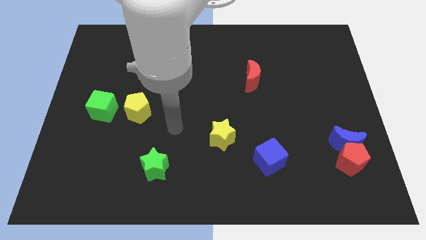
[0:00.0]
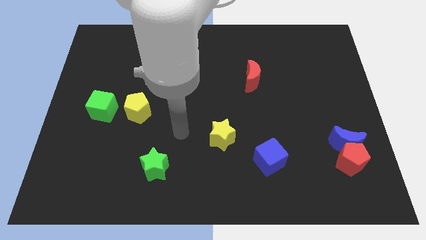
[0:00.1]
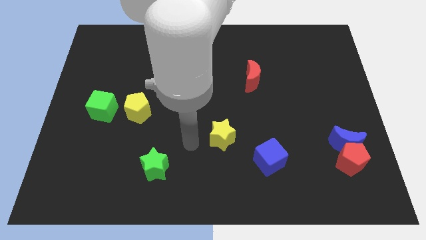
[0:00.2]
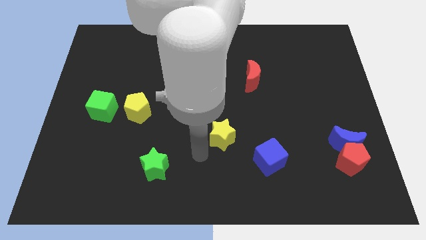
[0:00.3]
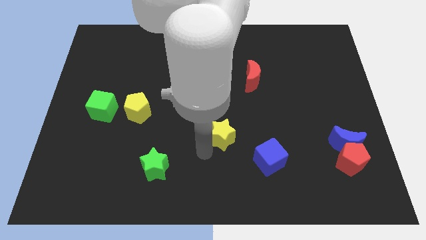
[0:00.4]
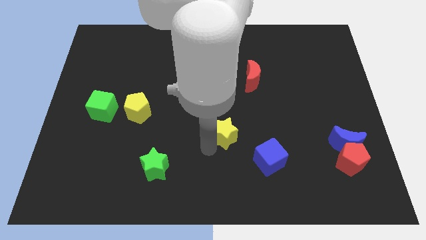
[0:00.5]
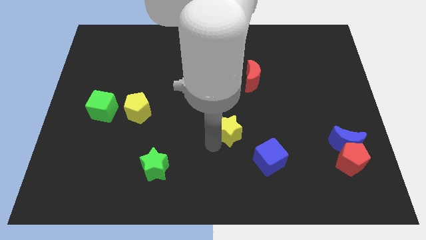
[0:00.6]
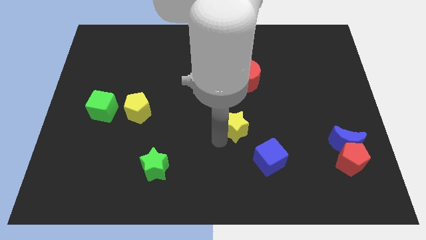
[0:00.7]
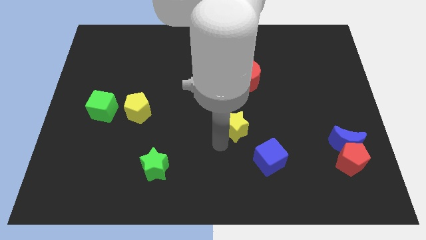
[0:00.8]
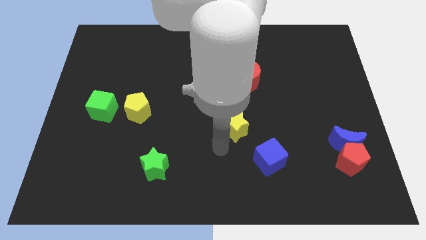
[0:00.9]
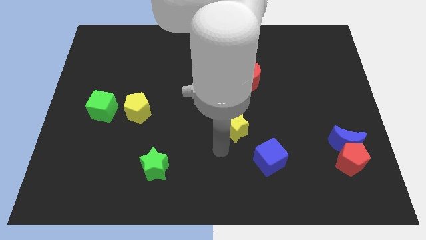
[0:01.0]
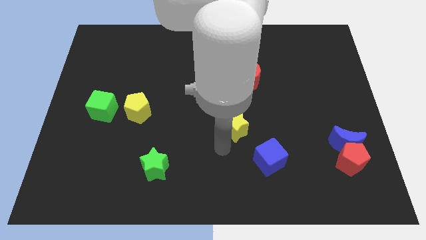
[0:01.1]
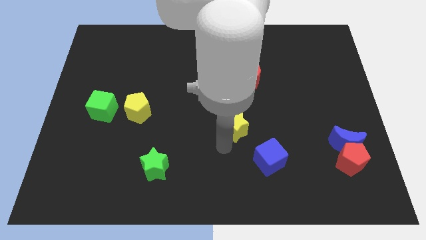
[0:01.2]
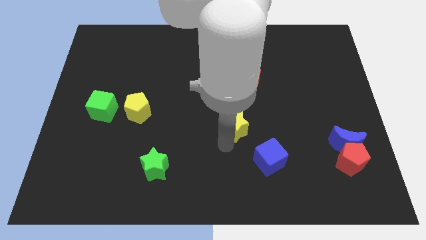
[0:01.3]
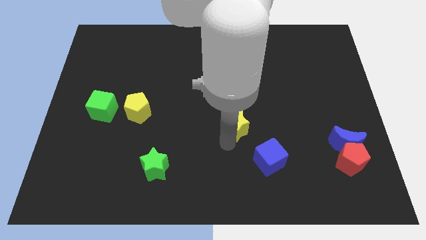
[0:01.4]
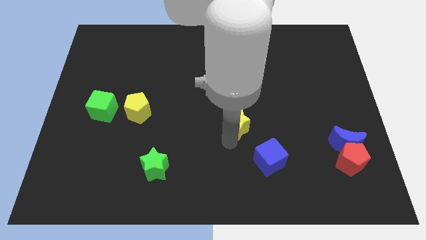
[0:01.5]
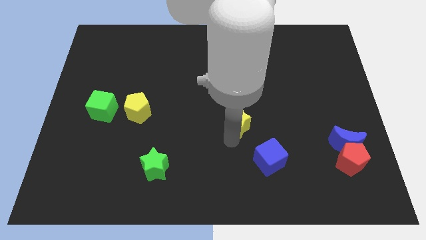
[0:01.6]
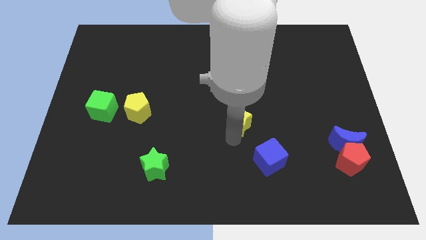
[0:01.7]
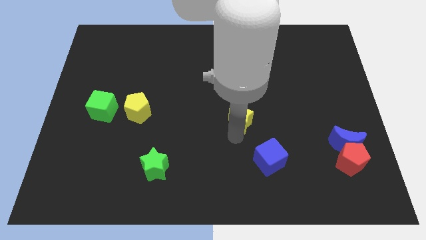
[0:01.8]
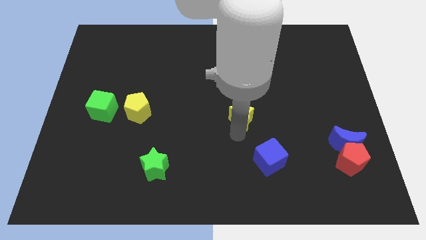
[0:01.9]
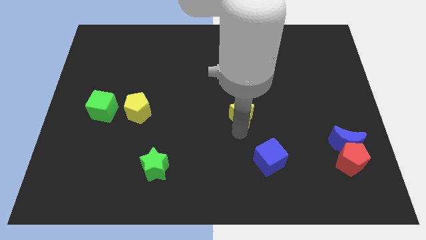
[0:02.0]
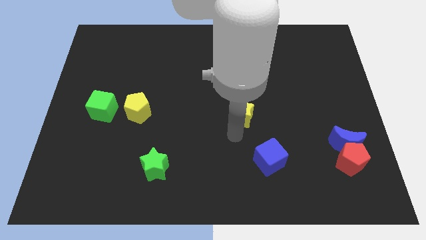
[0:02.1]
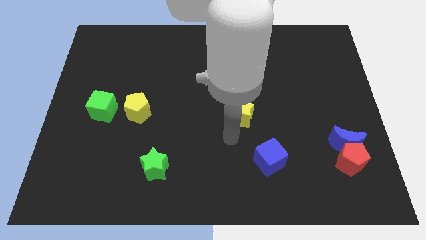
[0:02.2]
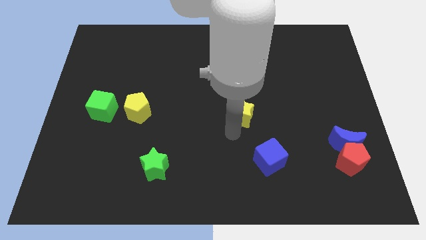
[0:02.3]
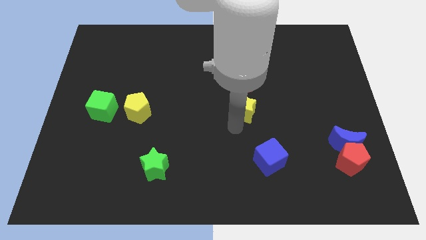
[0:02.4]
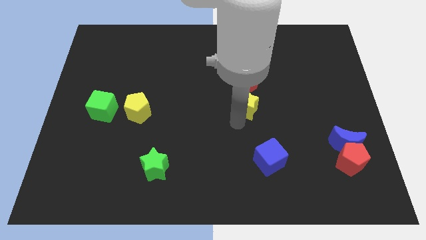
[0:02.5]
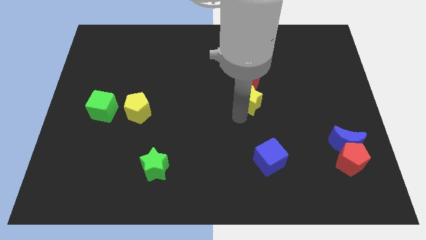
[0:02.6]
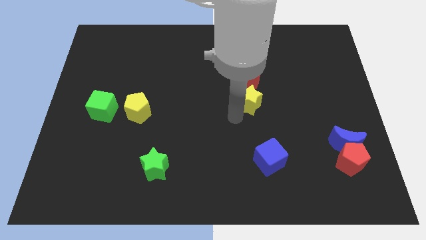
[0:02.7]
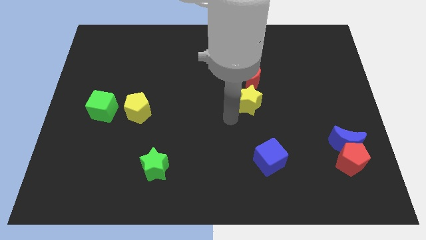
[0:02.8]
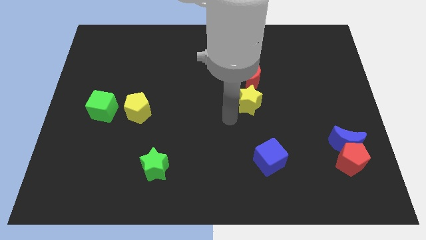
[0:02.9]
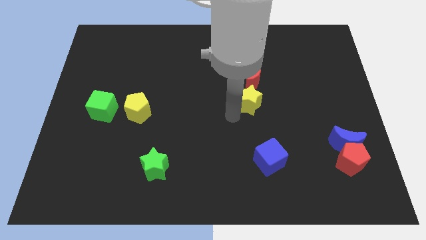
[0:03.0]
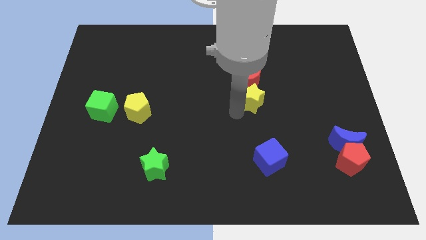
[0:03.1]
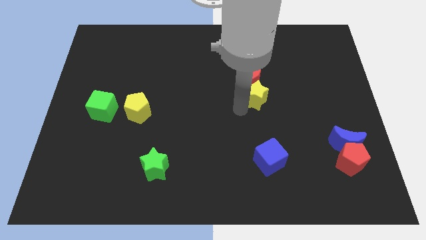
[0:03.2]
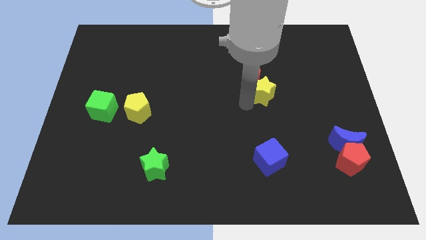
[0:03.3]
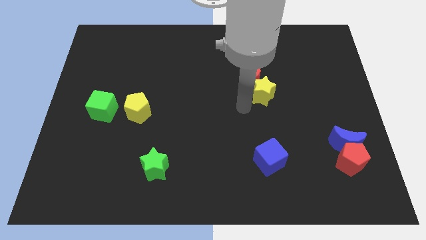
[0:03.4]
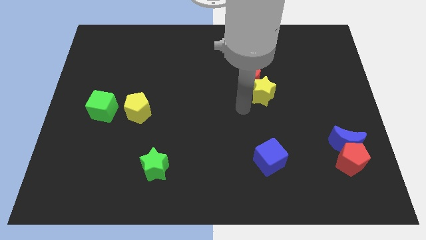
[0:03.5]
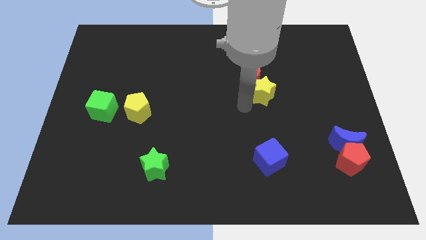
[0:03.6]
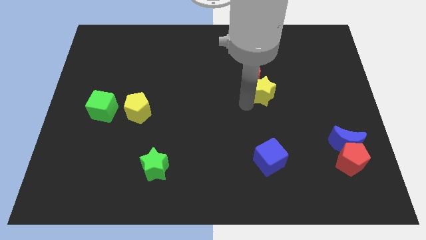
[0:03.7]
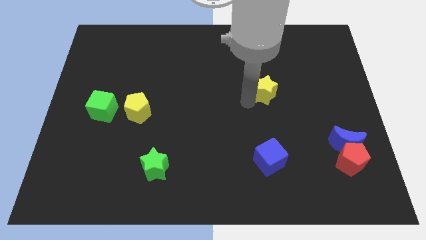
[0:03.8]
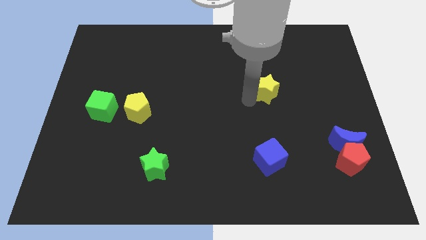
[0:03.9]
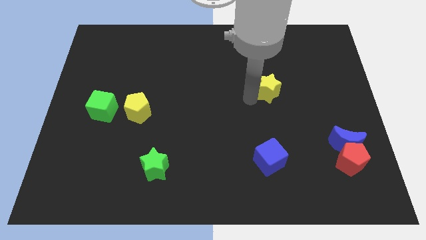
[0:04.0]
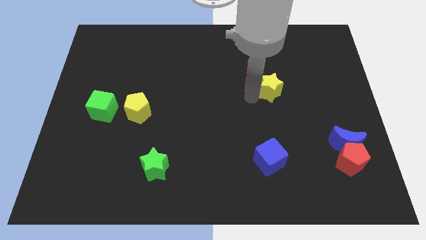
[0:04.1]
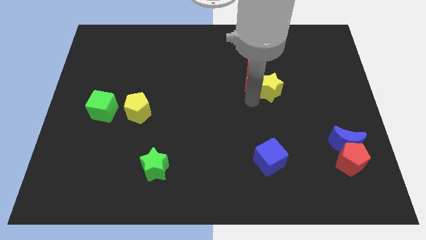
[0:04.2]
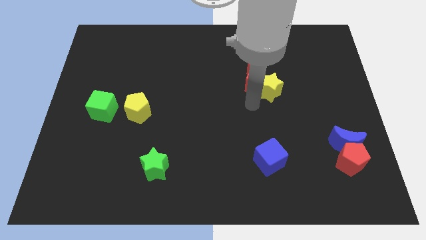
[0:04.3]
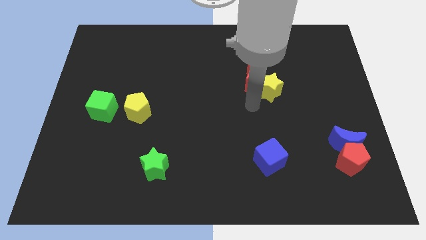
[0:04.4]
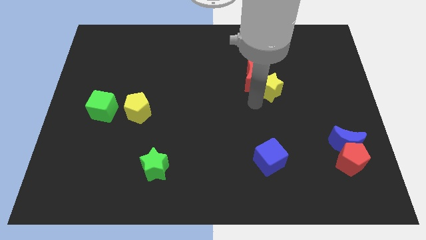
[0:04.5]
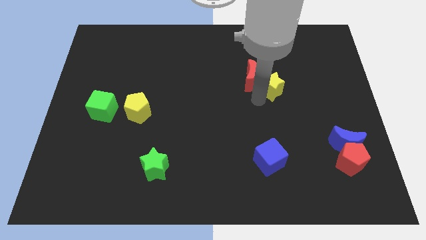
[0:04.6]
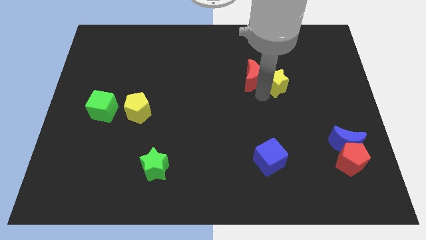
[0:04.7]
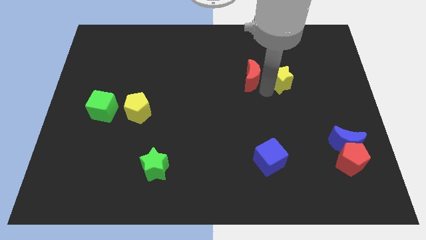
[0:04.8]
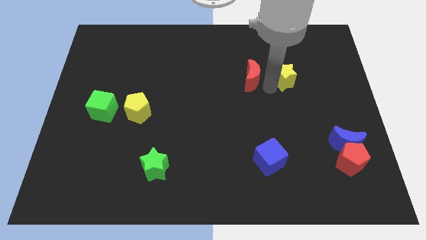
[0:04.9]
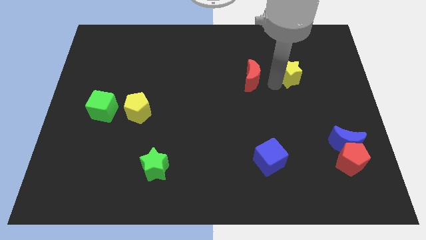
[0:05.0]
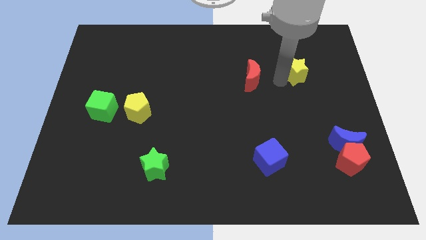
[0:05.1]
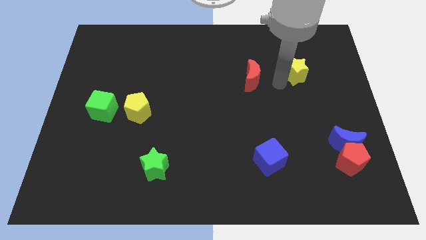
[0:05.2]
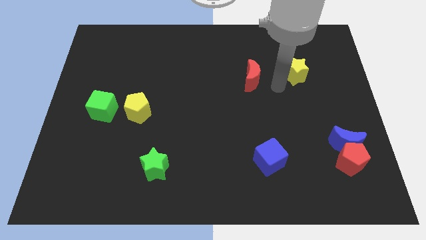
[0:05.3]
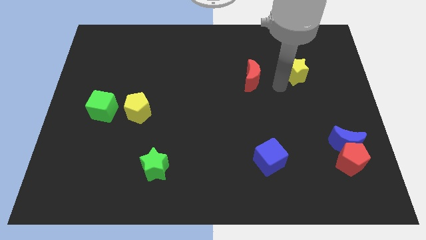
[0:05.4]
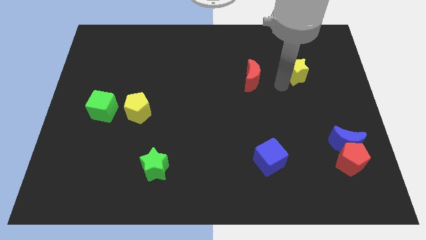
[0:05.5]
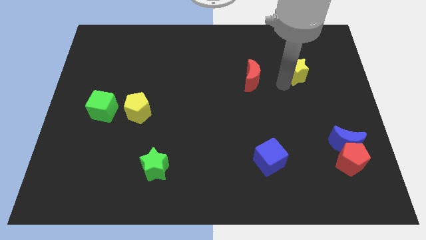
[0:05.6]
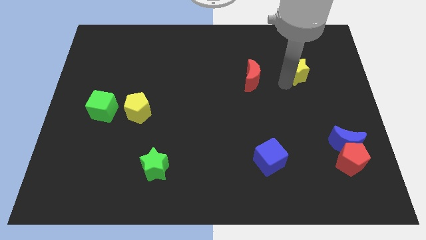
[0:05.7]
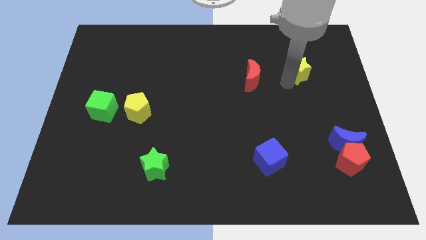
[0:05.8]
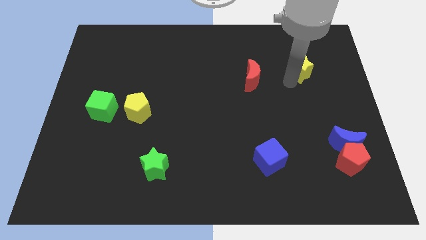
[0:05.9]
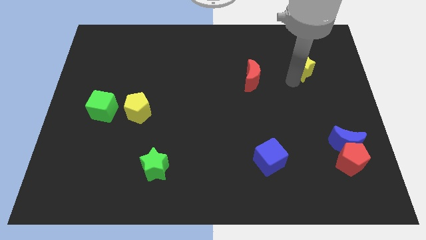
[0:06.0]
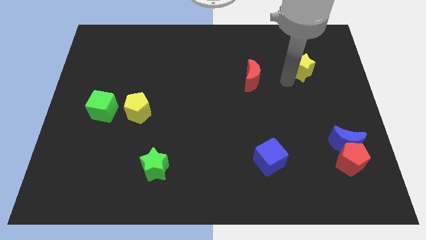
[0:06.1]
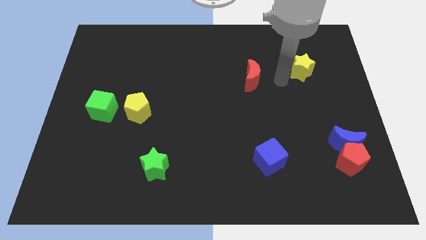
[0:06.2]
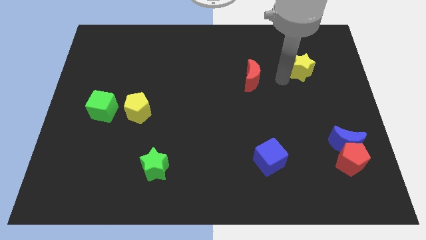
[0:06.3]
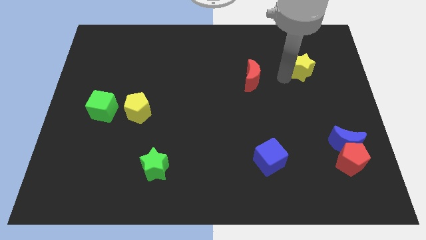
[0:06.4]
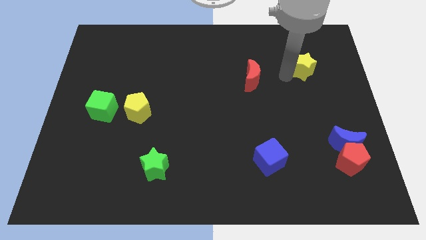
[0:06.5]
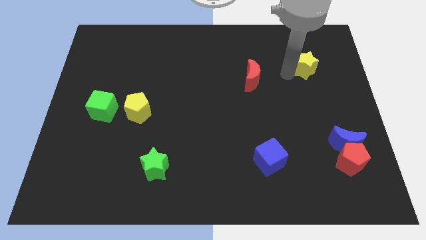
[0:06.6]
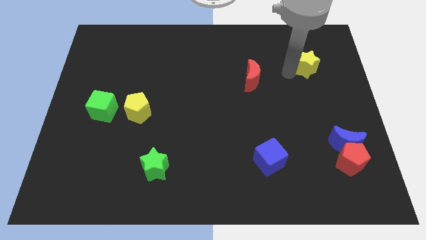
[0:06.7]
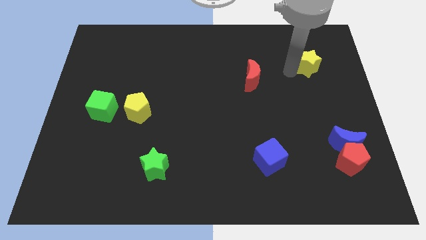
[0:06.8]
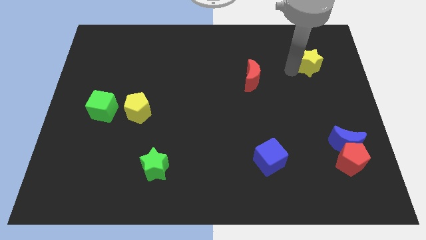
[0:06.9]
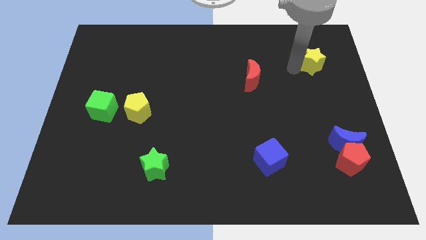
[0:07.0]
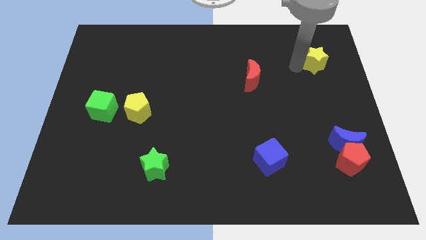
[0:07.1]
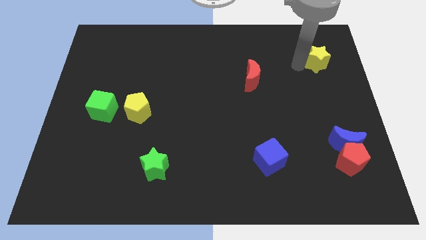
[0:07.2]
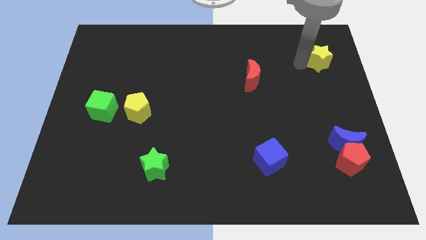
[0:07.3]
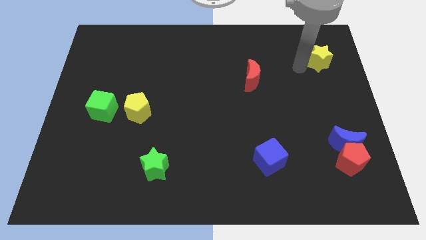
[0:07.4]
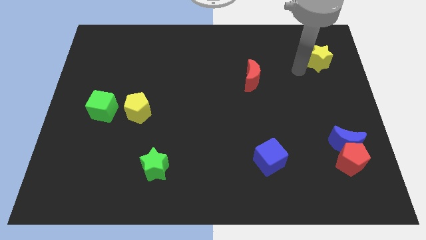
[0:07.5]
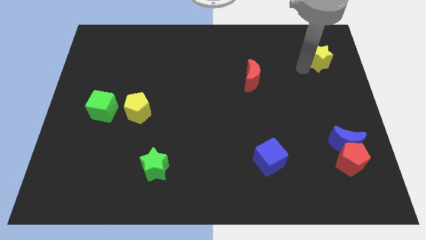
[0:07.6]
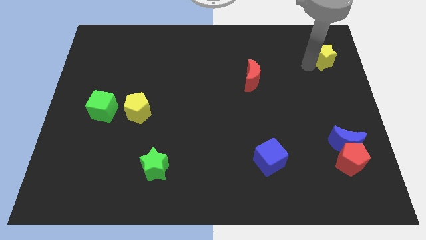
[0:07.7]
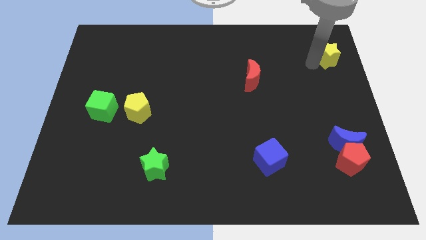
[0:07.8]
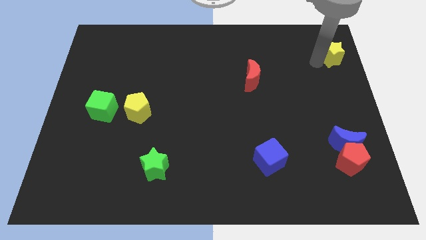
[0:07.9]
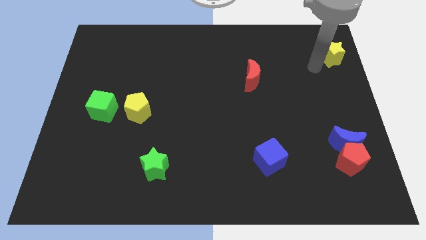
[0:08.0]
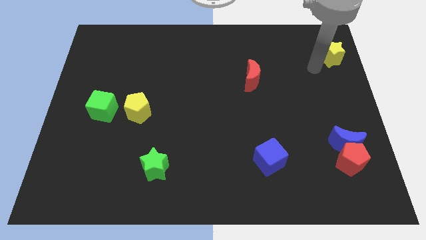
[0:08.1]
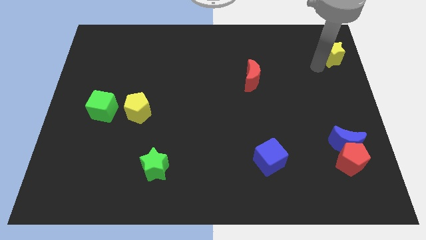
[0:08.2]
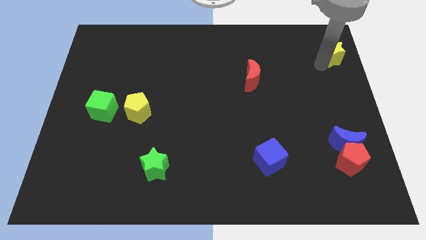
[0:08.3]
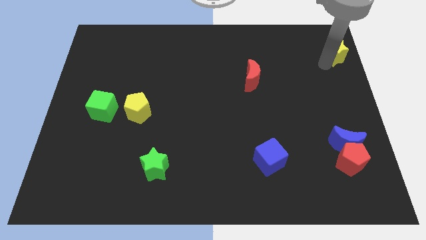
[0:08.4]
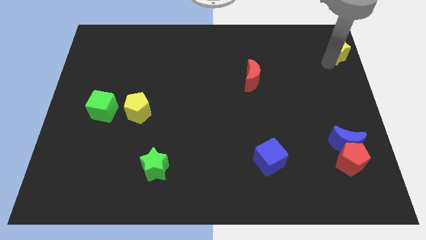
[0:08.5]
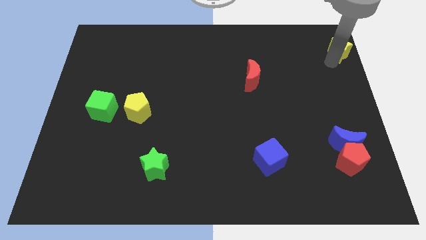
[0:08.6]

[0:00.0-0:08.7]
slide the yellow star to the top right
